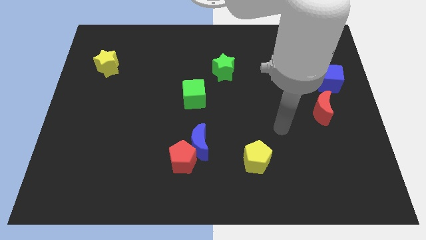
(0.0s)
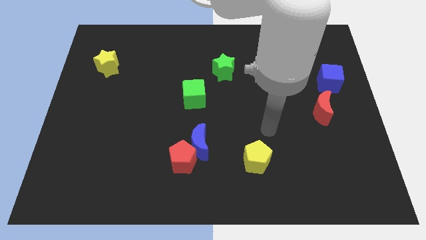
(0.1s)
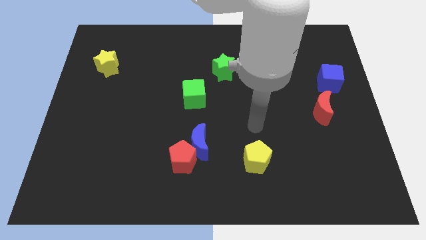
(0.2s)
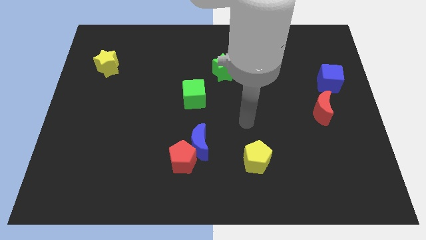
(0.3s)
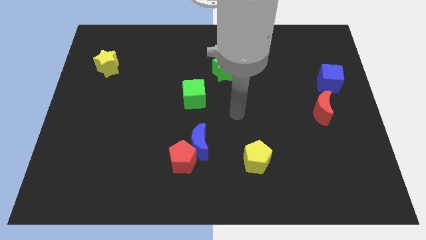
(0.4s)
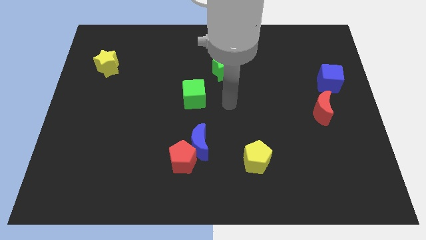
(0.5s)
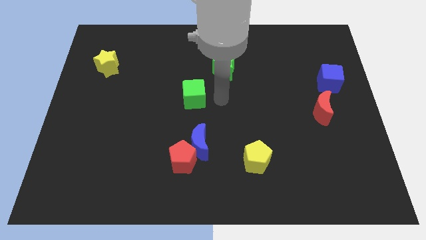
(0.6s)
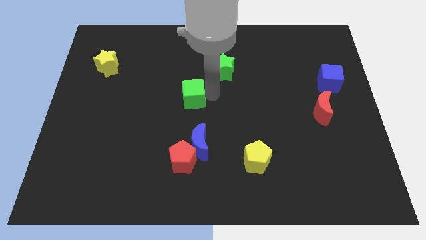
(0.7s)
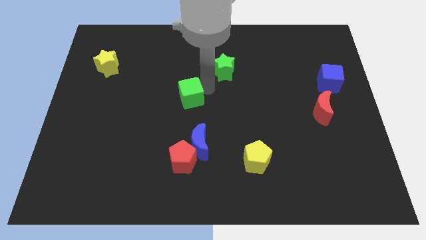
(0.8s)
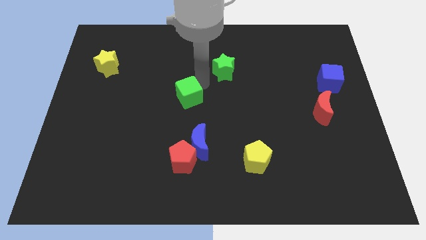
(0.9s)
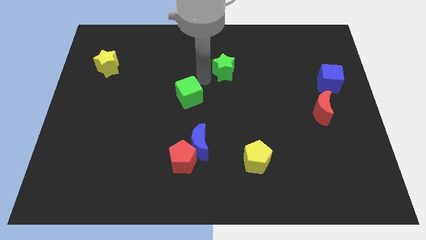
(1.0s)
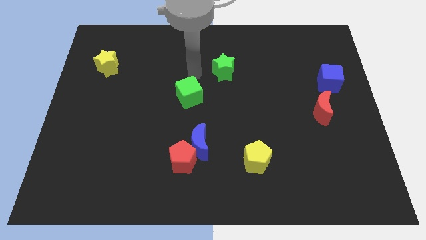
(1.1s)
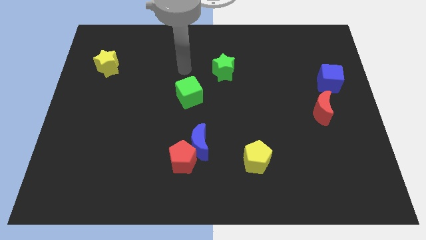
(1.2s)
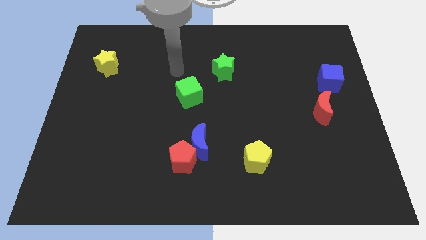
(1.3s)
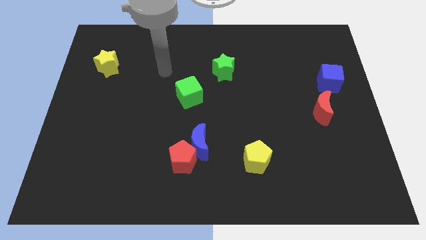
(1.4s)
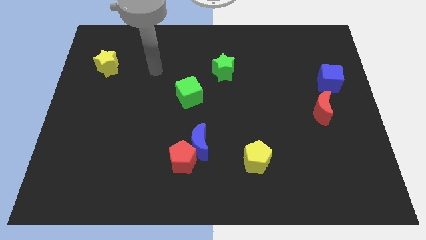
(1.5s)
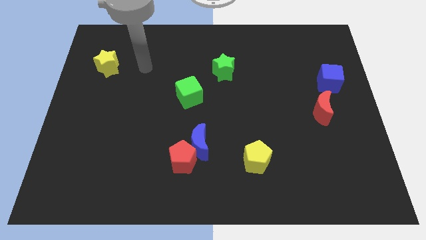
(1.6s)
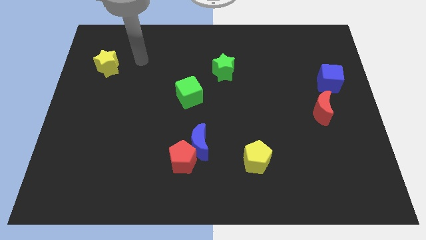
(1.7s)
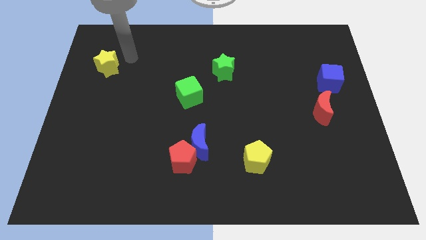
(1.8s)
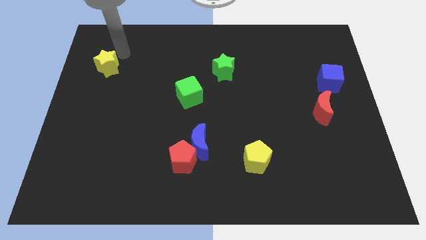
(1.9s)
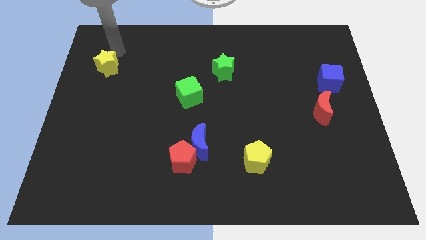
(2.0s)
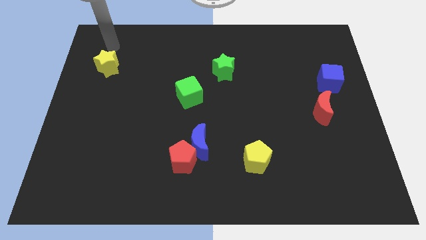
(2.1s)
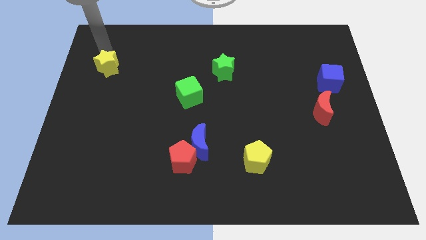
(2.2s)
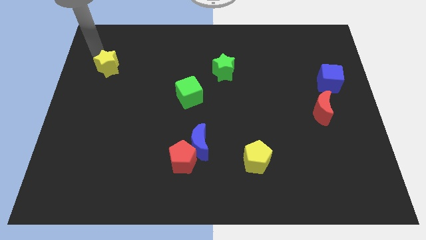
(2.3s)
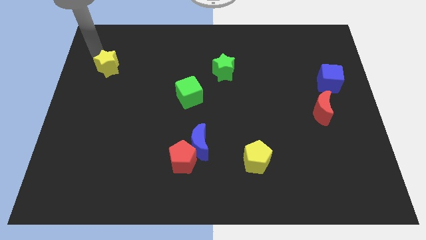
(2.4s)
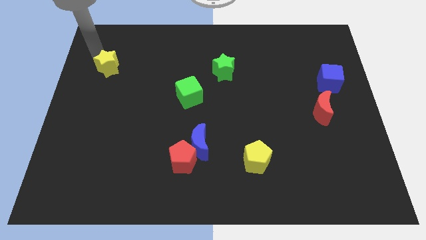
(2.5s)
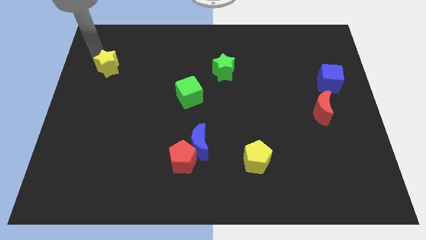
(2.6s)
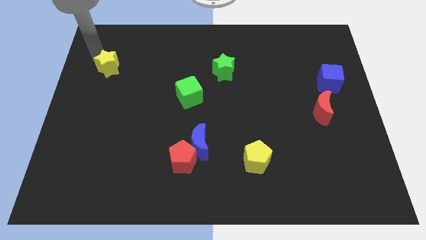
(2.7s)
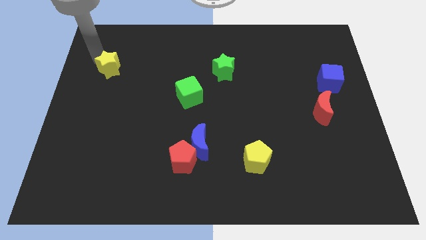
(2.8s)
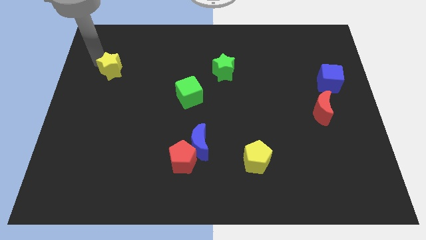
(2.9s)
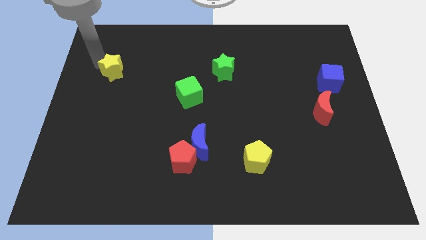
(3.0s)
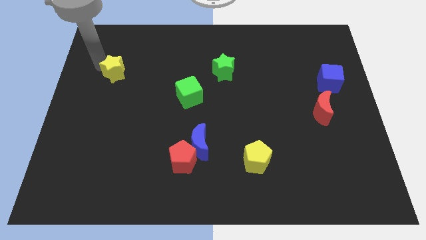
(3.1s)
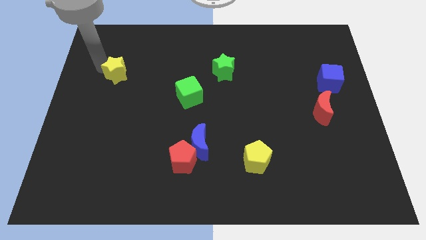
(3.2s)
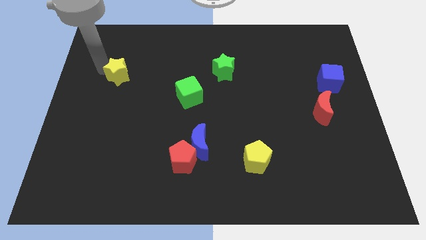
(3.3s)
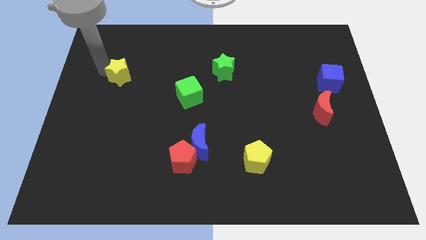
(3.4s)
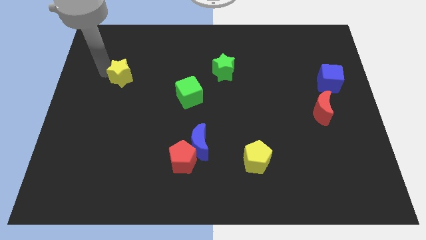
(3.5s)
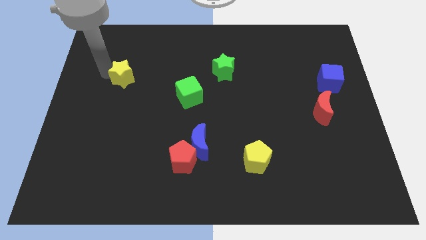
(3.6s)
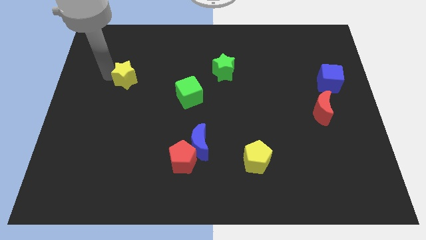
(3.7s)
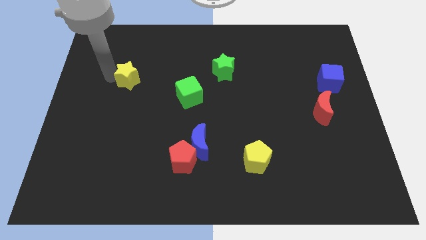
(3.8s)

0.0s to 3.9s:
slightly move the yellow star down and to the right diagonally

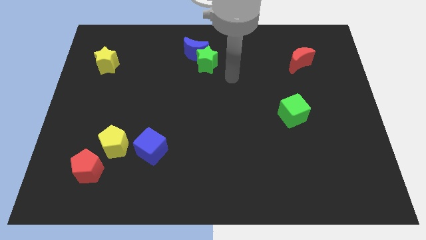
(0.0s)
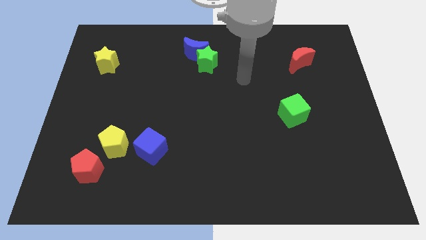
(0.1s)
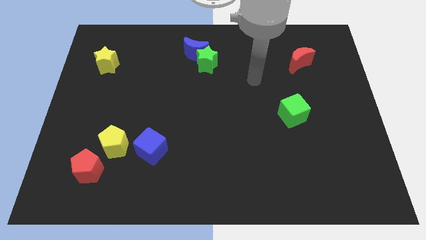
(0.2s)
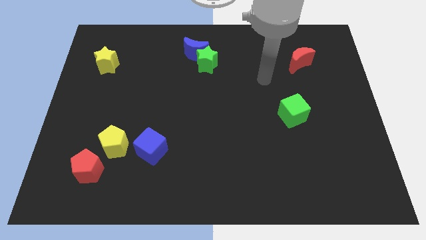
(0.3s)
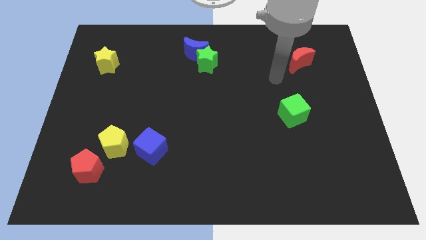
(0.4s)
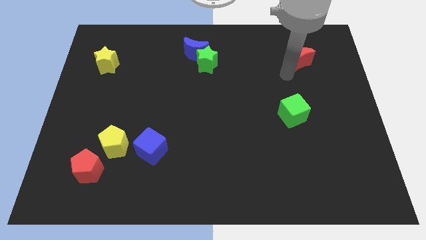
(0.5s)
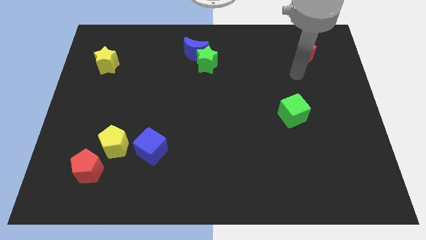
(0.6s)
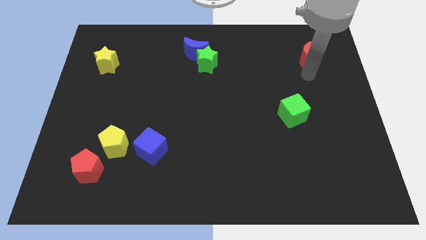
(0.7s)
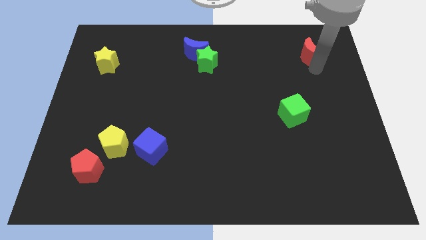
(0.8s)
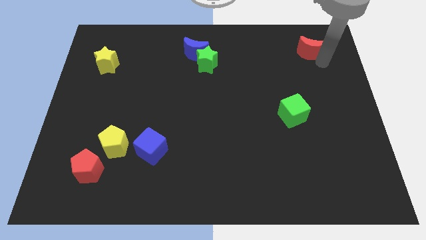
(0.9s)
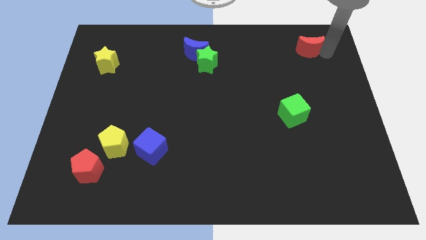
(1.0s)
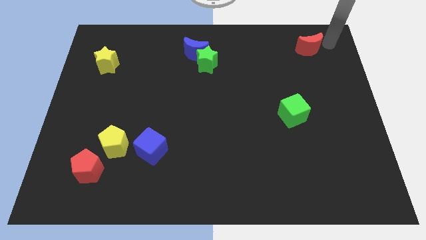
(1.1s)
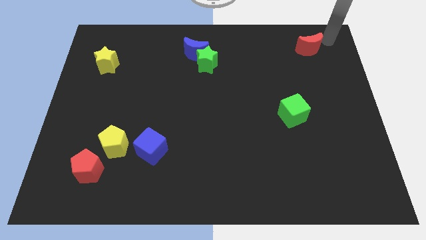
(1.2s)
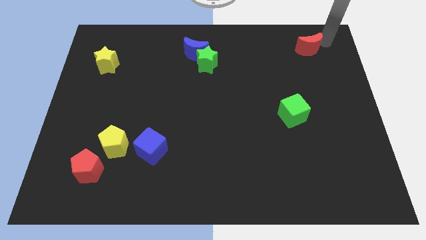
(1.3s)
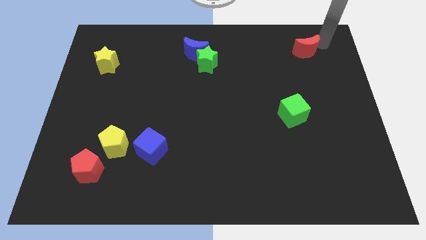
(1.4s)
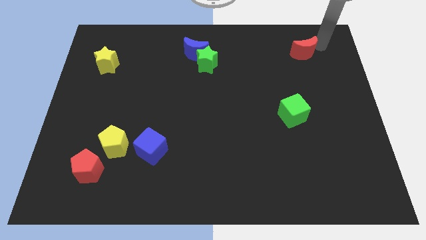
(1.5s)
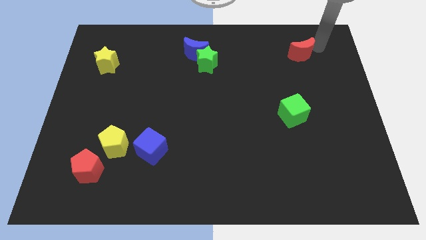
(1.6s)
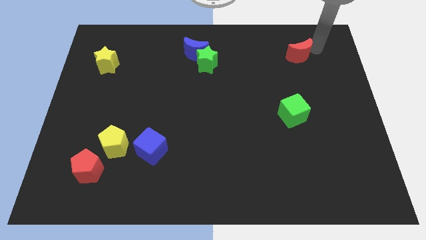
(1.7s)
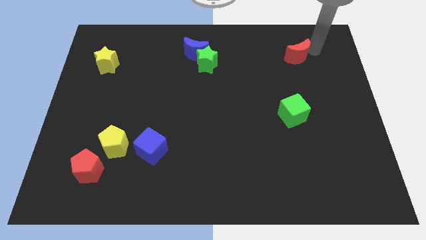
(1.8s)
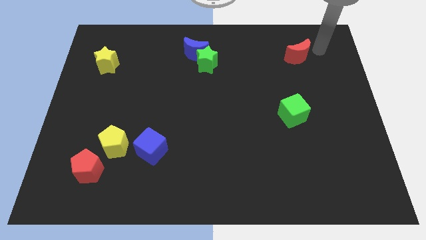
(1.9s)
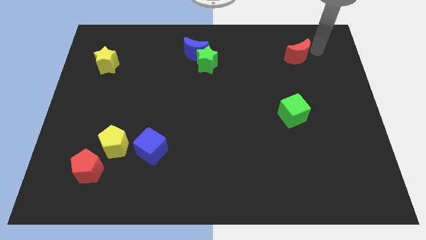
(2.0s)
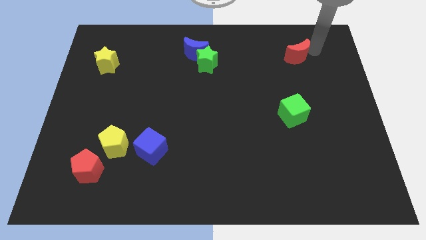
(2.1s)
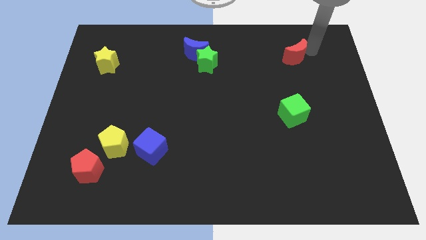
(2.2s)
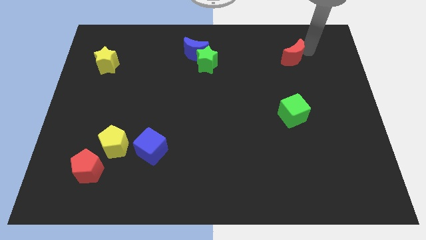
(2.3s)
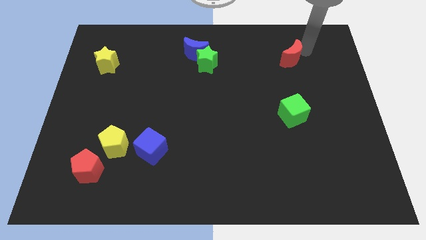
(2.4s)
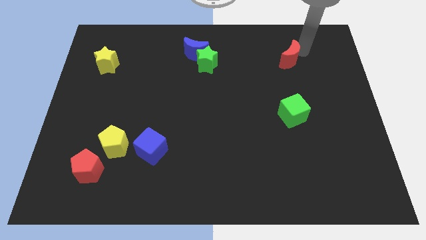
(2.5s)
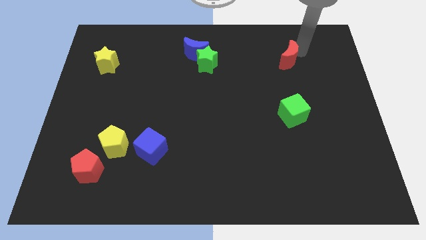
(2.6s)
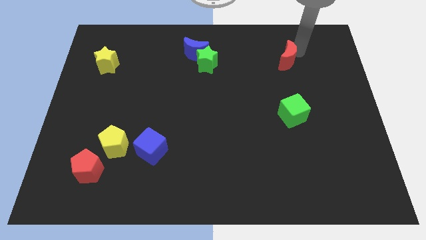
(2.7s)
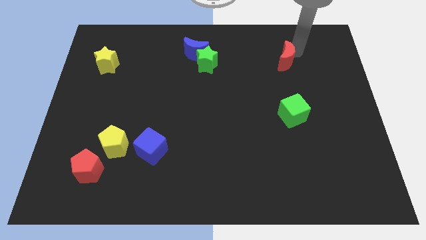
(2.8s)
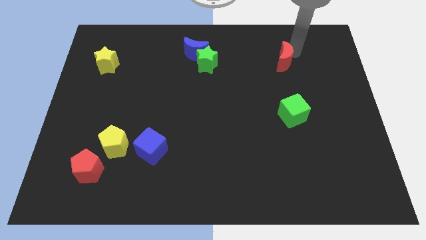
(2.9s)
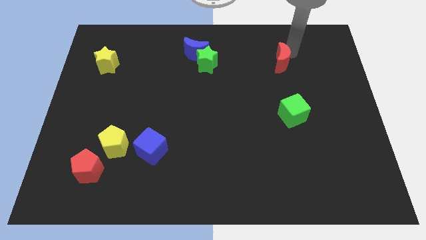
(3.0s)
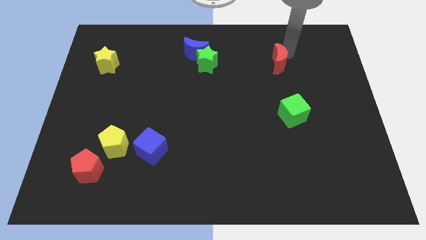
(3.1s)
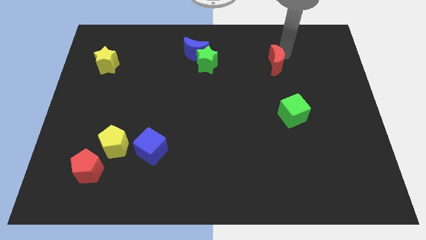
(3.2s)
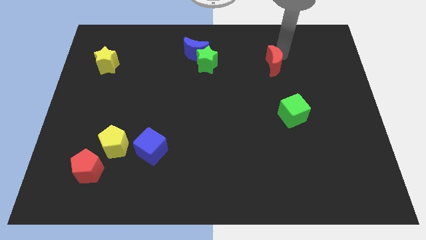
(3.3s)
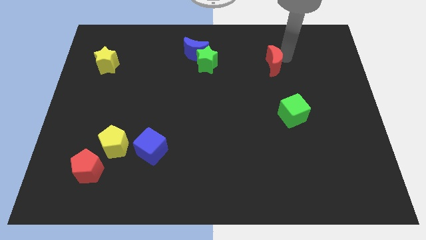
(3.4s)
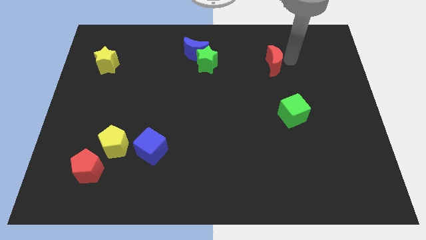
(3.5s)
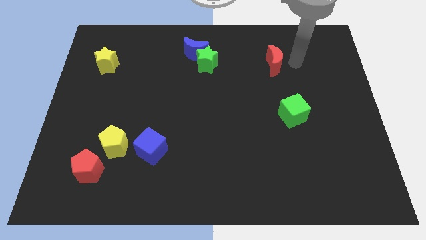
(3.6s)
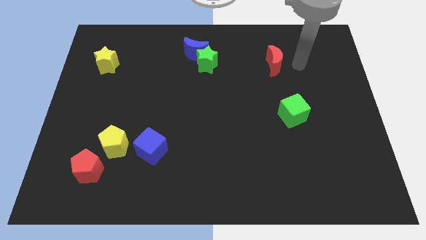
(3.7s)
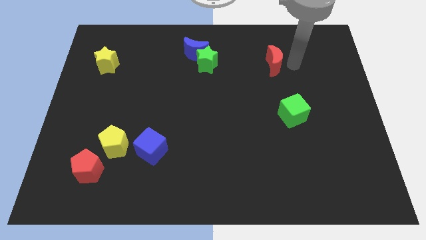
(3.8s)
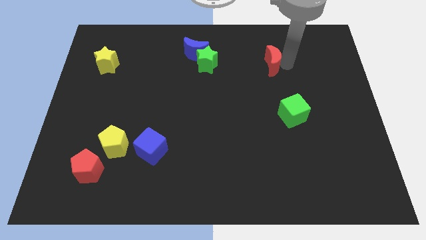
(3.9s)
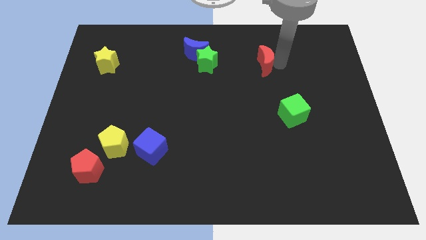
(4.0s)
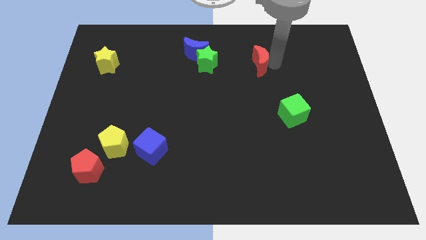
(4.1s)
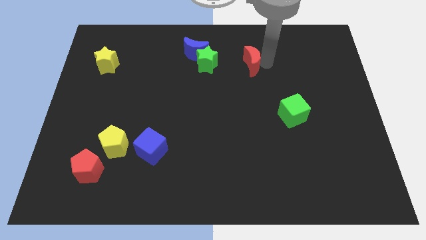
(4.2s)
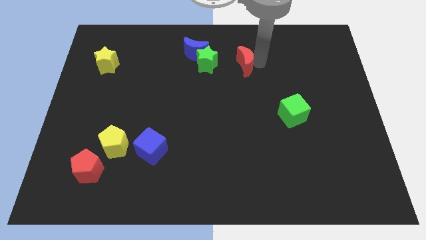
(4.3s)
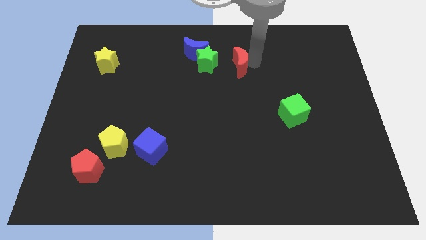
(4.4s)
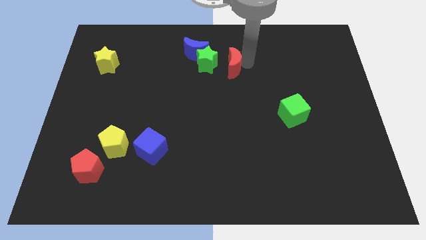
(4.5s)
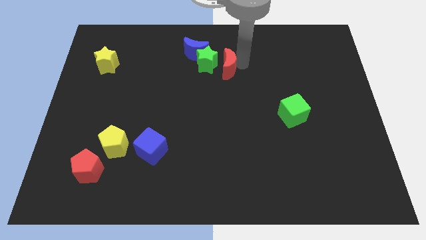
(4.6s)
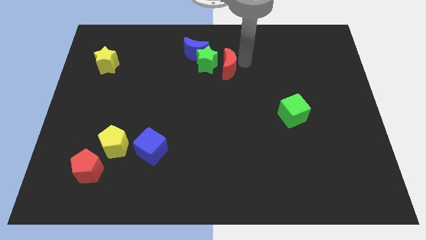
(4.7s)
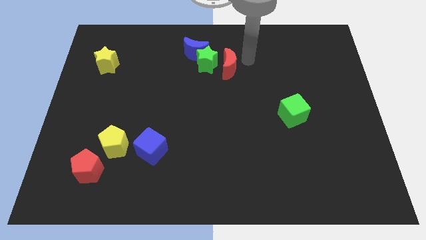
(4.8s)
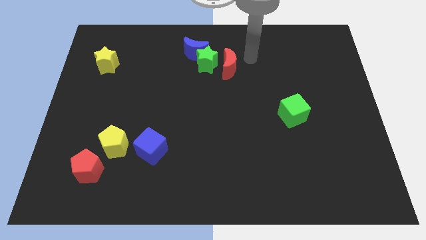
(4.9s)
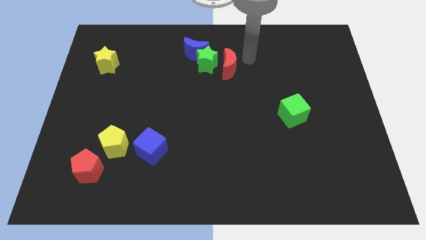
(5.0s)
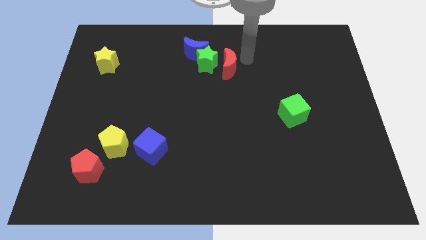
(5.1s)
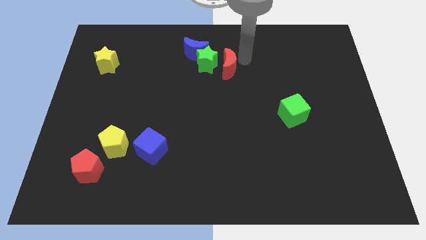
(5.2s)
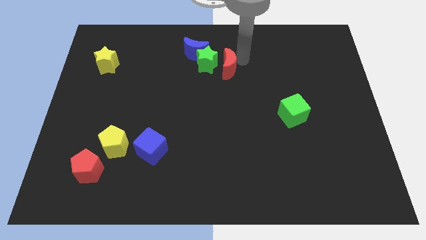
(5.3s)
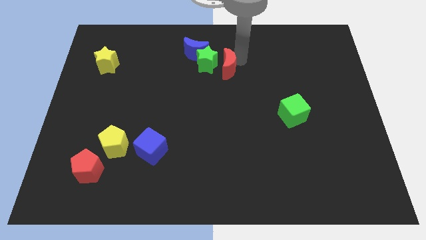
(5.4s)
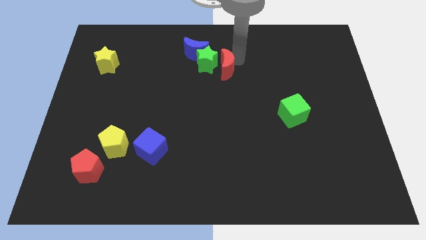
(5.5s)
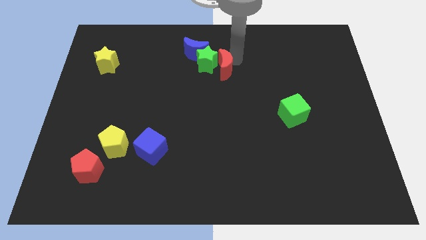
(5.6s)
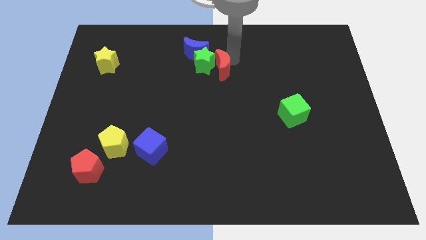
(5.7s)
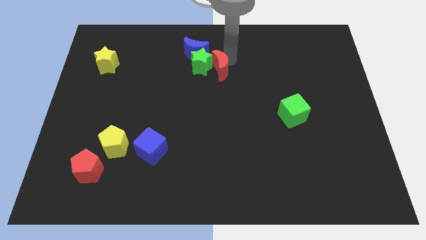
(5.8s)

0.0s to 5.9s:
push the red moon left
